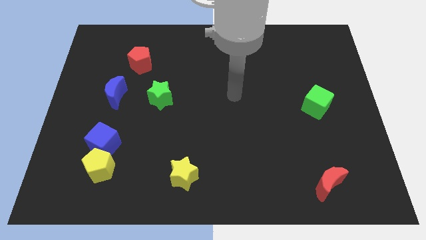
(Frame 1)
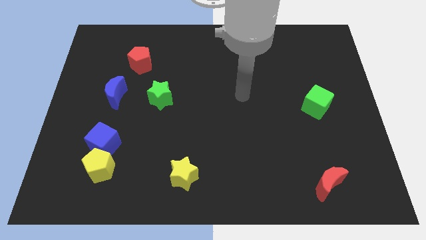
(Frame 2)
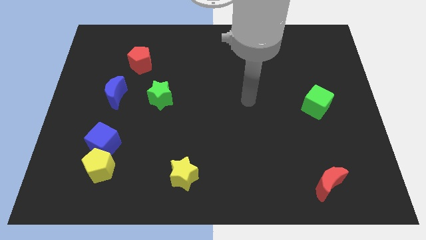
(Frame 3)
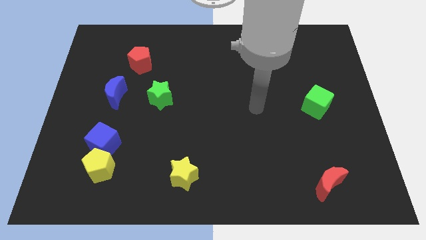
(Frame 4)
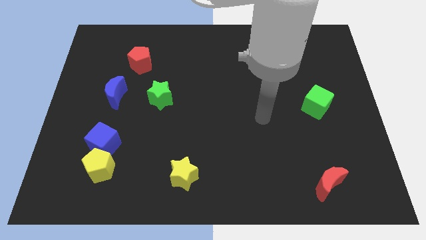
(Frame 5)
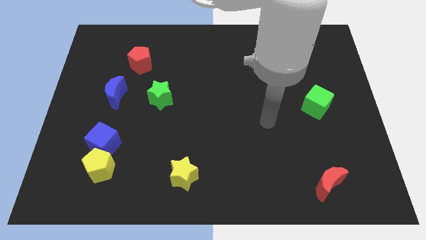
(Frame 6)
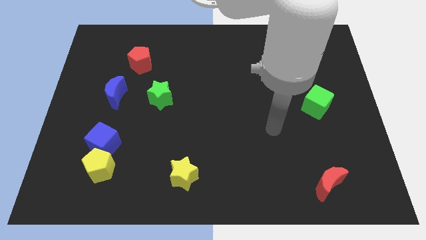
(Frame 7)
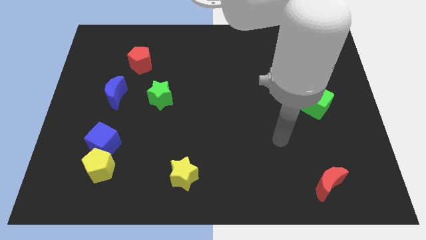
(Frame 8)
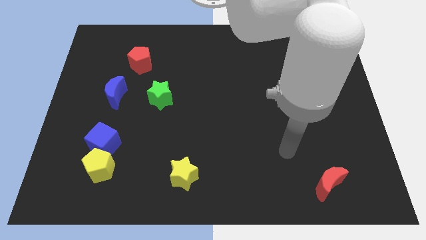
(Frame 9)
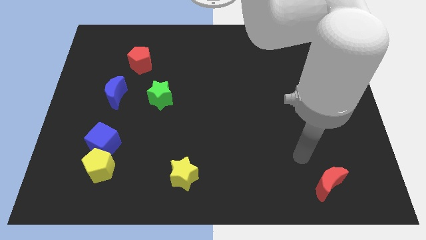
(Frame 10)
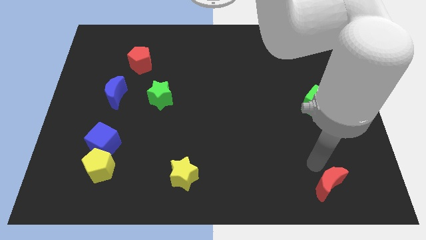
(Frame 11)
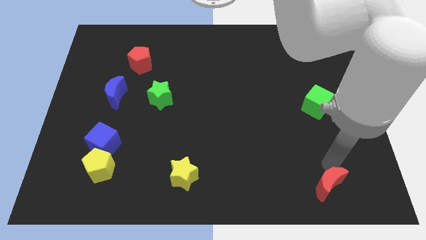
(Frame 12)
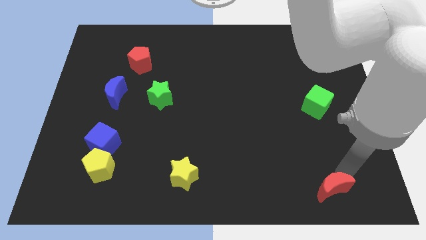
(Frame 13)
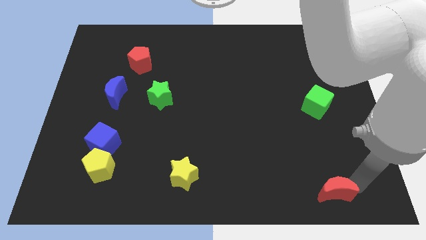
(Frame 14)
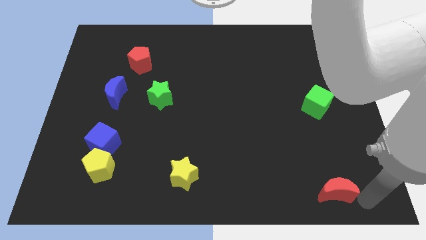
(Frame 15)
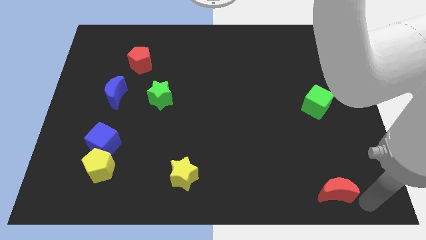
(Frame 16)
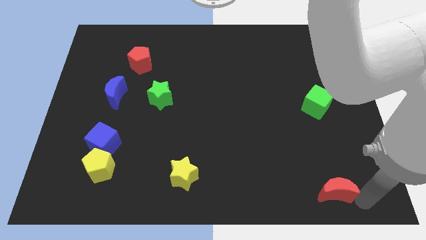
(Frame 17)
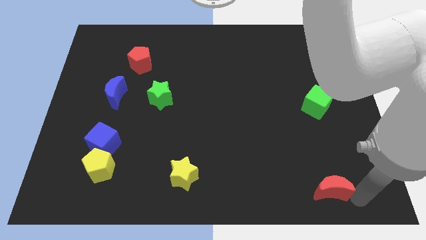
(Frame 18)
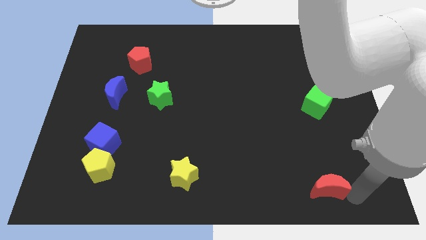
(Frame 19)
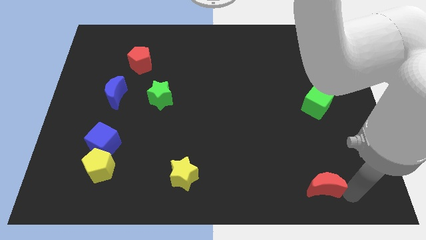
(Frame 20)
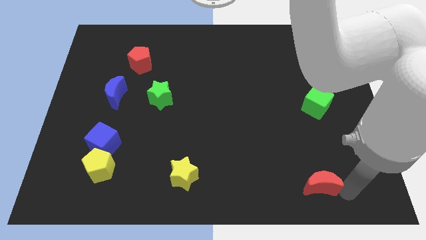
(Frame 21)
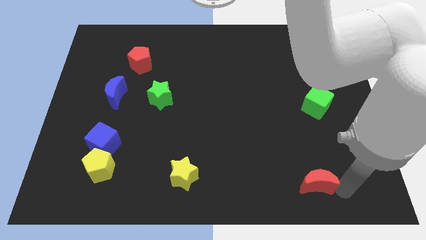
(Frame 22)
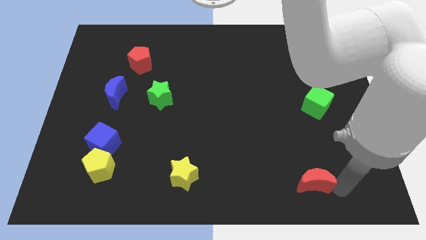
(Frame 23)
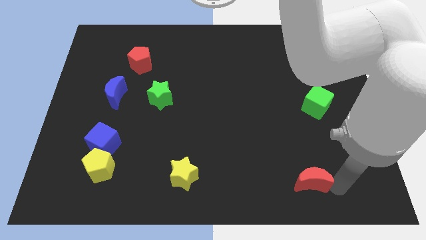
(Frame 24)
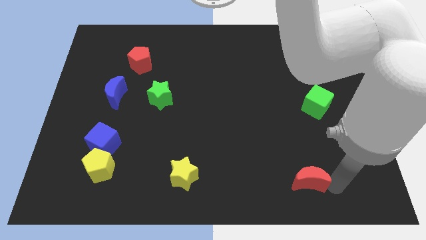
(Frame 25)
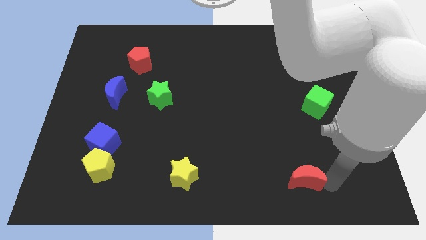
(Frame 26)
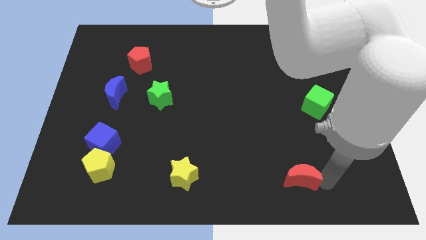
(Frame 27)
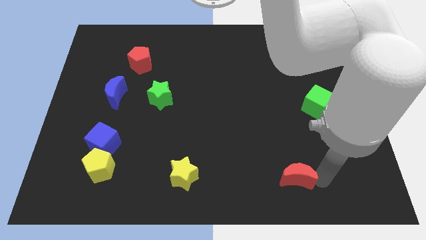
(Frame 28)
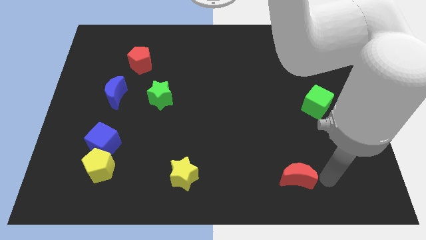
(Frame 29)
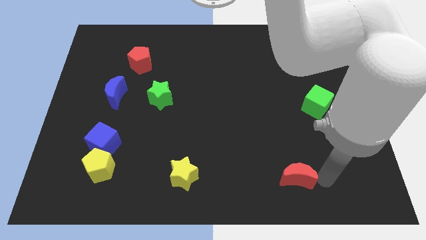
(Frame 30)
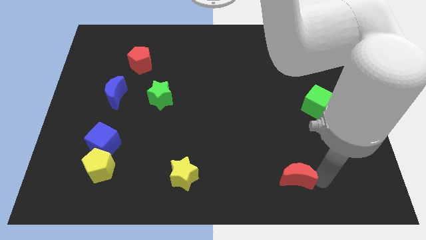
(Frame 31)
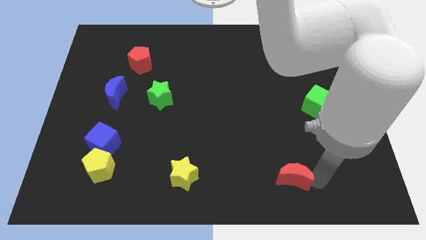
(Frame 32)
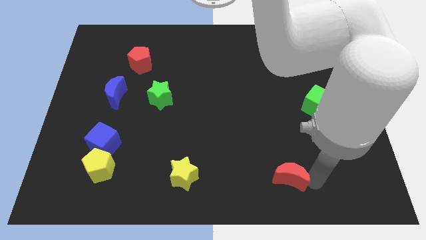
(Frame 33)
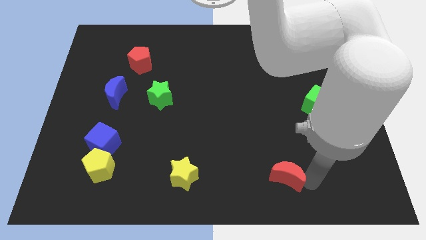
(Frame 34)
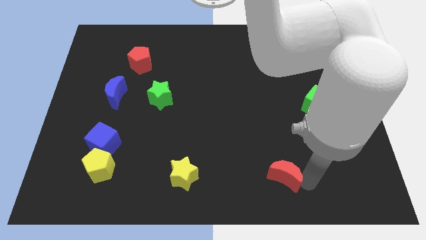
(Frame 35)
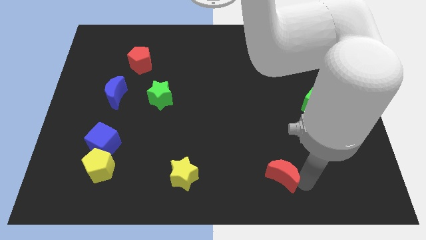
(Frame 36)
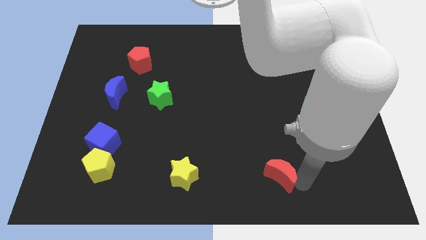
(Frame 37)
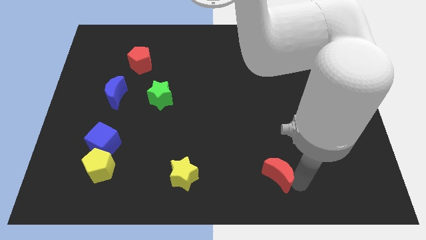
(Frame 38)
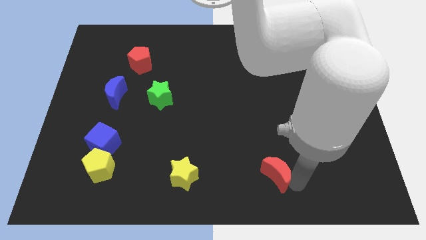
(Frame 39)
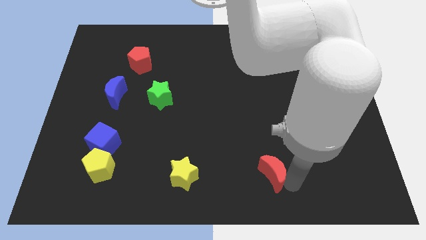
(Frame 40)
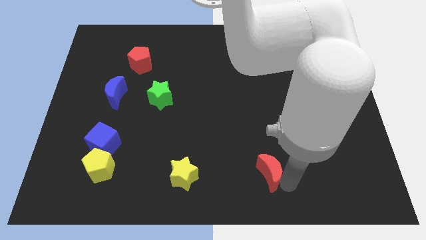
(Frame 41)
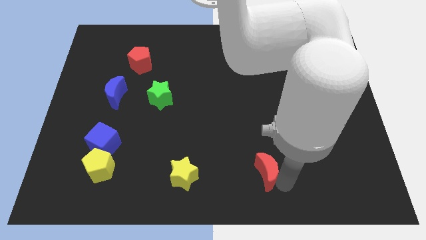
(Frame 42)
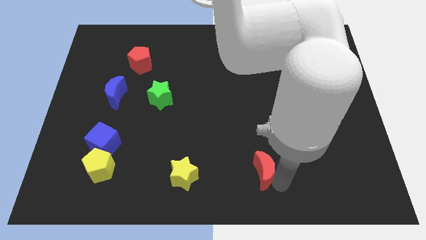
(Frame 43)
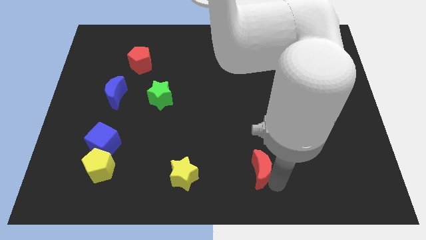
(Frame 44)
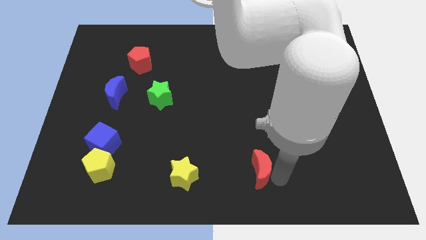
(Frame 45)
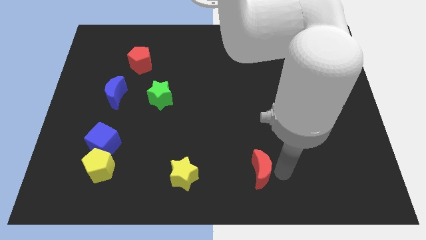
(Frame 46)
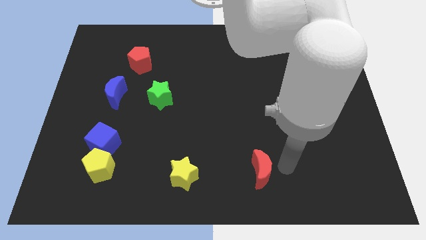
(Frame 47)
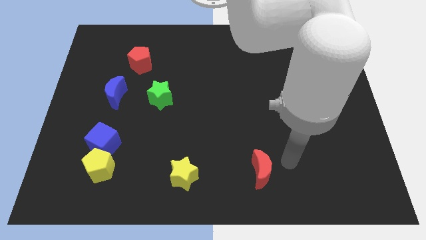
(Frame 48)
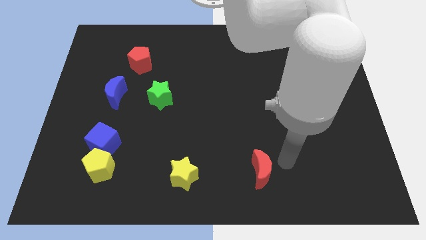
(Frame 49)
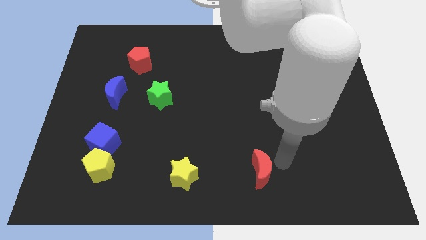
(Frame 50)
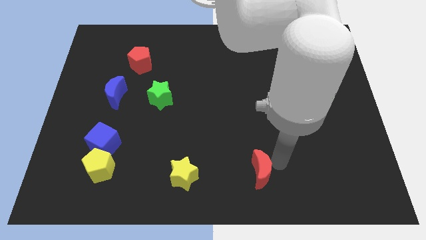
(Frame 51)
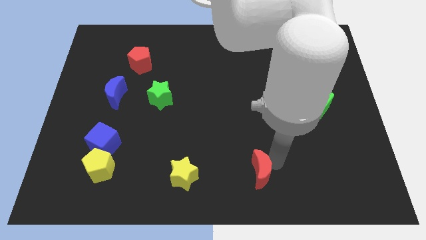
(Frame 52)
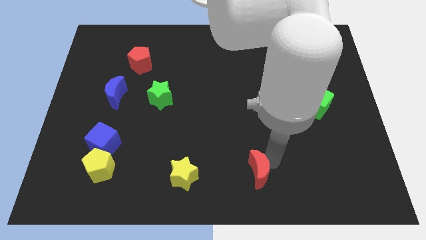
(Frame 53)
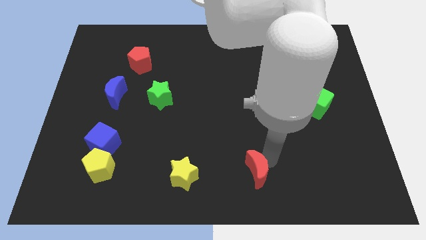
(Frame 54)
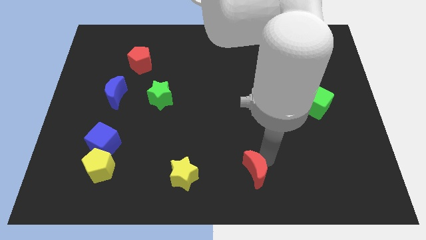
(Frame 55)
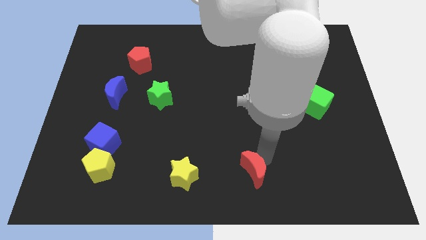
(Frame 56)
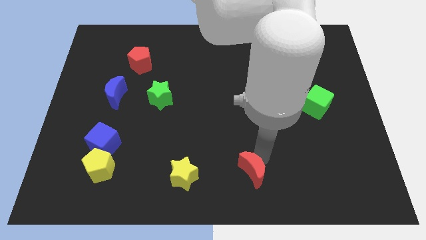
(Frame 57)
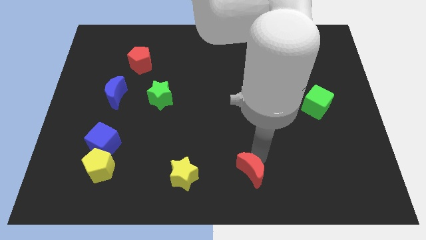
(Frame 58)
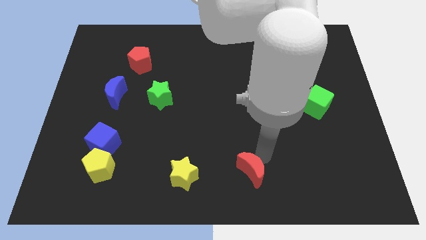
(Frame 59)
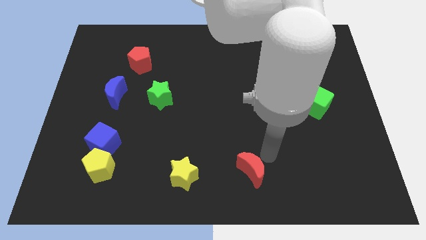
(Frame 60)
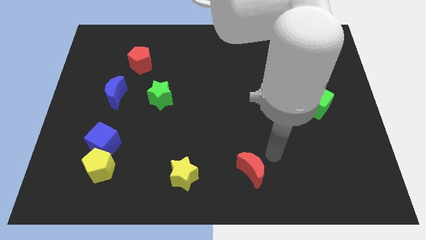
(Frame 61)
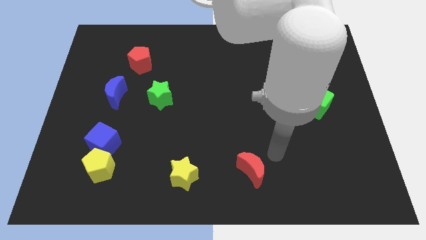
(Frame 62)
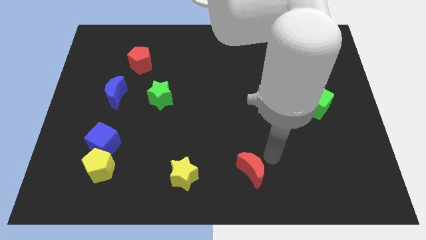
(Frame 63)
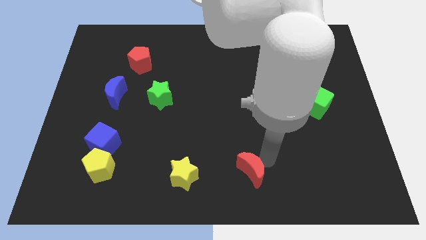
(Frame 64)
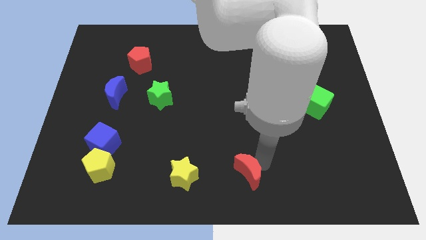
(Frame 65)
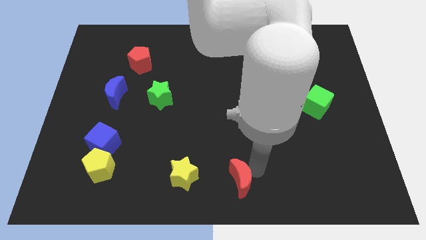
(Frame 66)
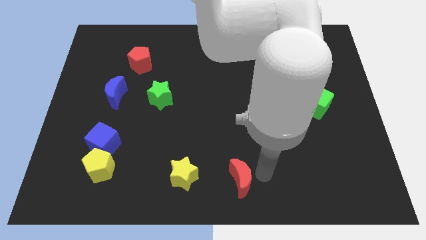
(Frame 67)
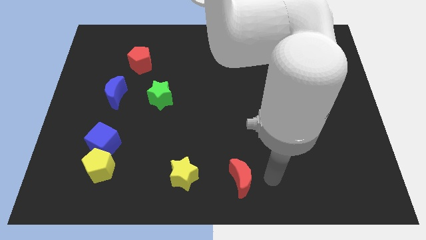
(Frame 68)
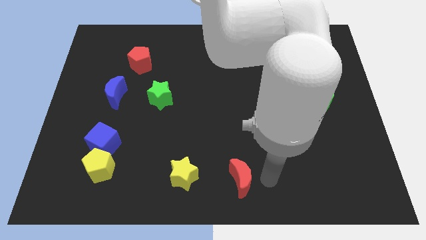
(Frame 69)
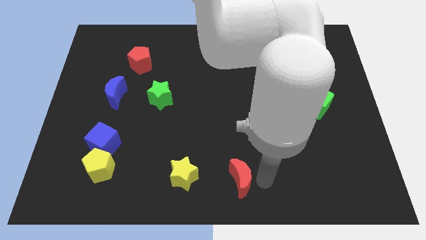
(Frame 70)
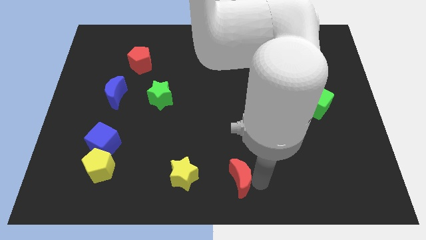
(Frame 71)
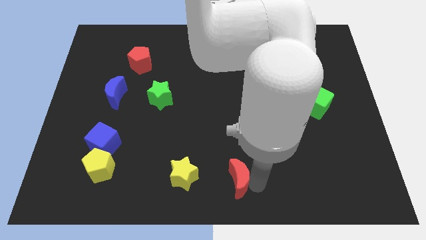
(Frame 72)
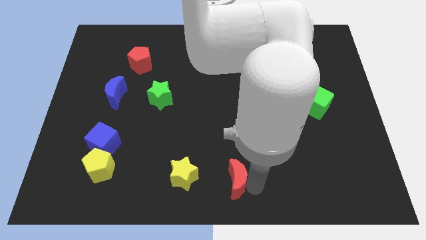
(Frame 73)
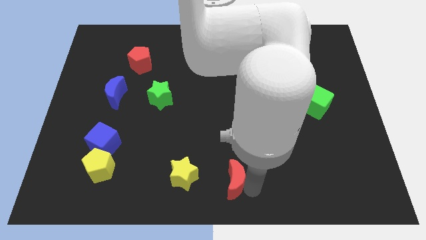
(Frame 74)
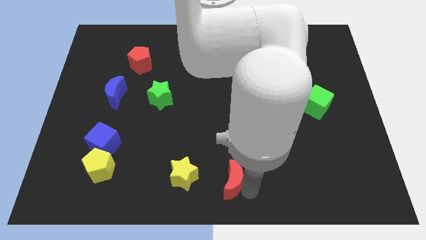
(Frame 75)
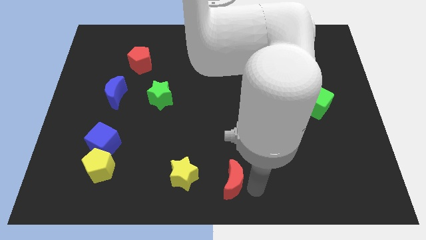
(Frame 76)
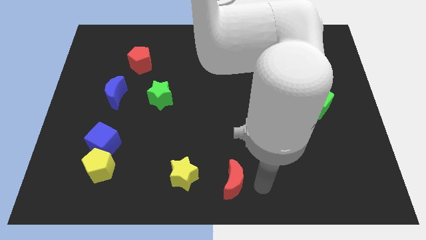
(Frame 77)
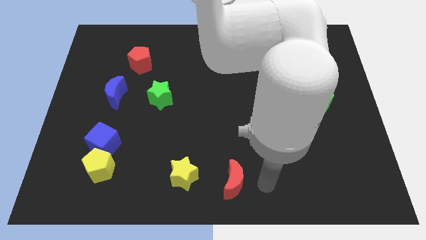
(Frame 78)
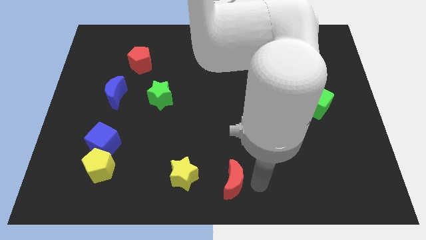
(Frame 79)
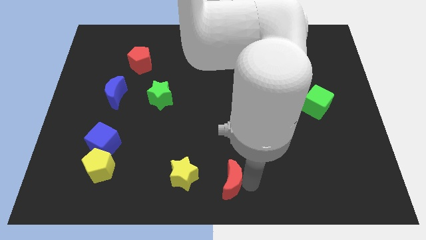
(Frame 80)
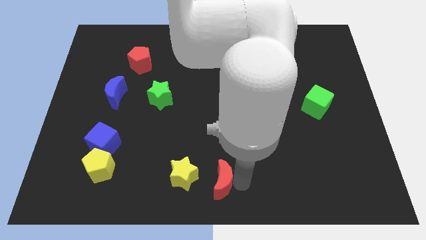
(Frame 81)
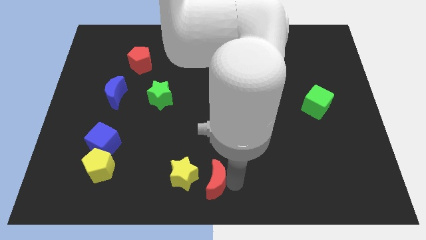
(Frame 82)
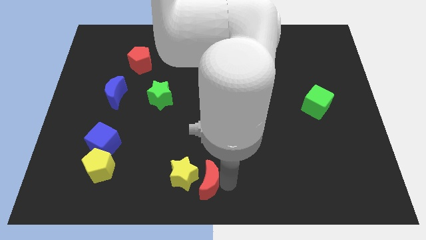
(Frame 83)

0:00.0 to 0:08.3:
put the red moon close to the yellow star
